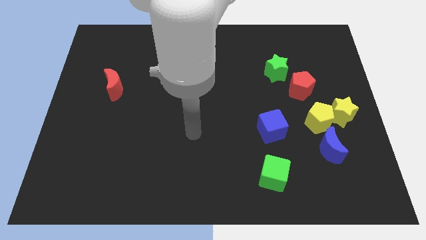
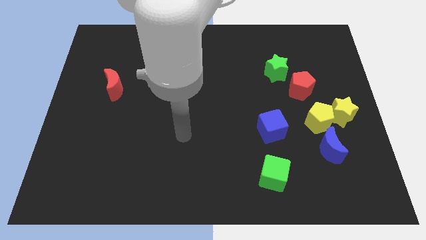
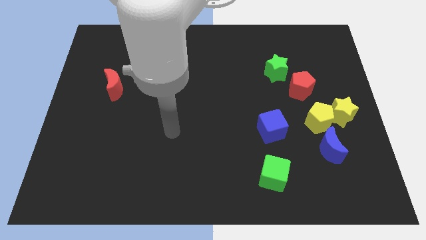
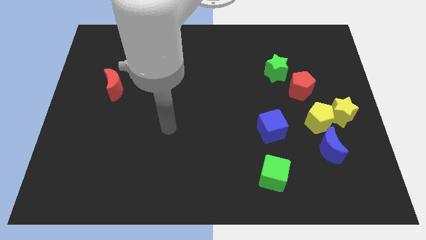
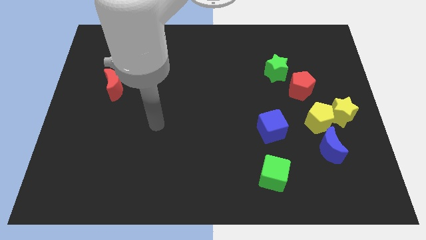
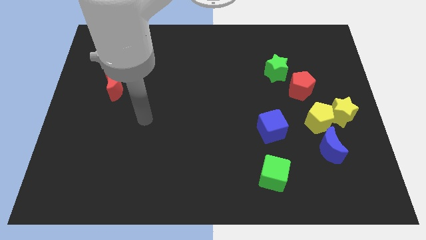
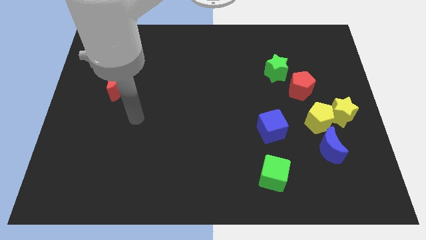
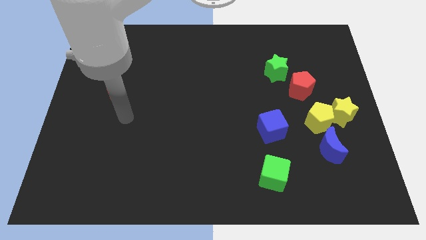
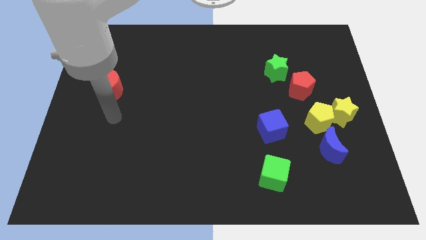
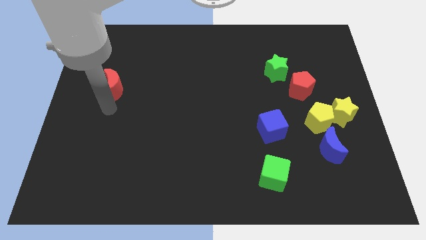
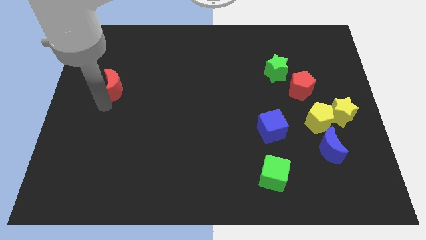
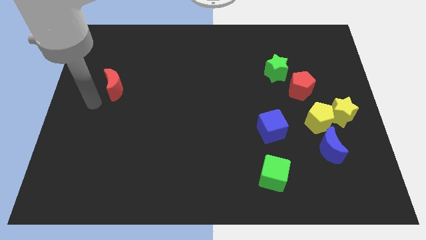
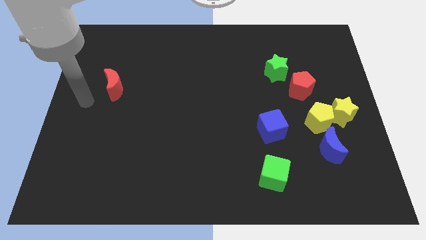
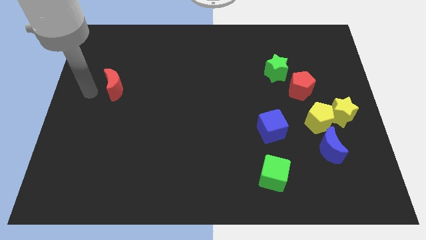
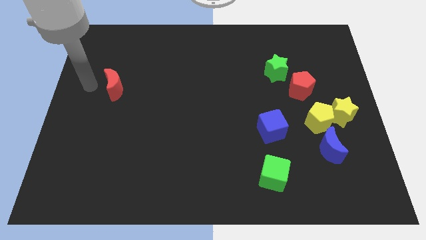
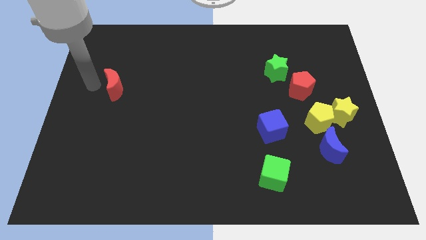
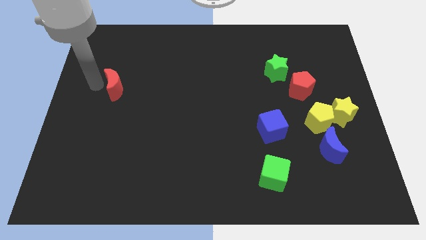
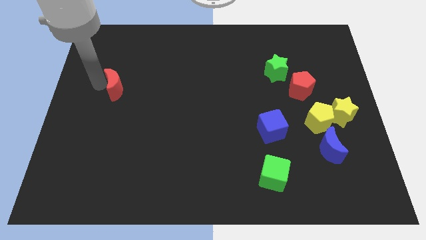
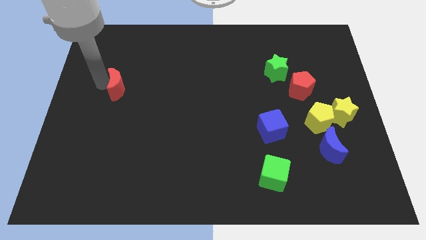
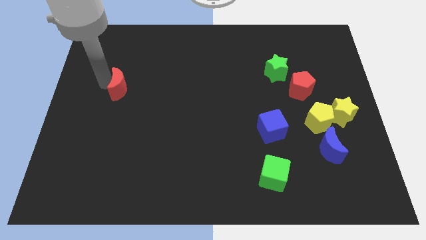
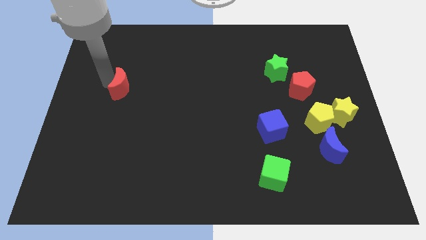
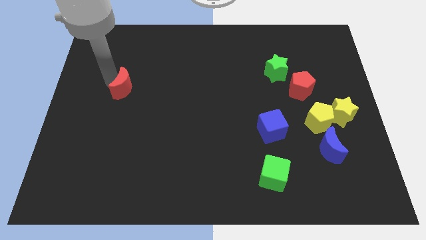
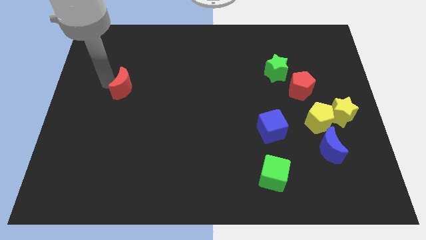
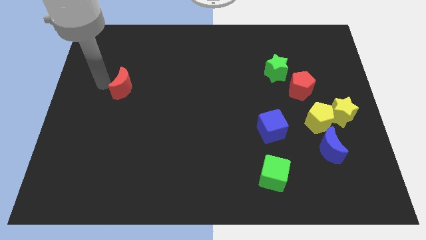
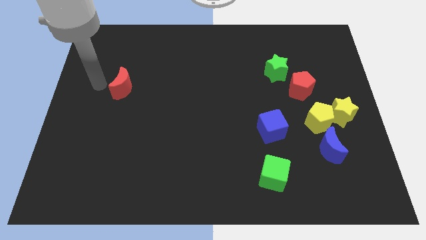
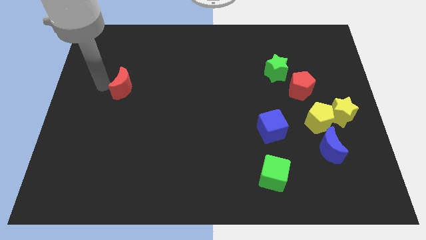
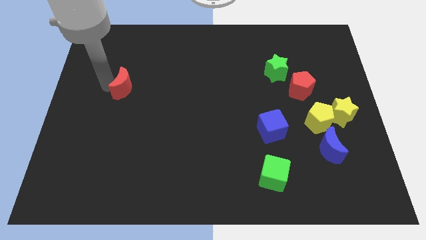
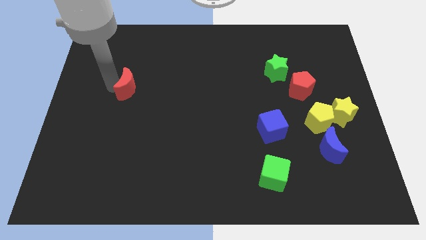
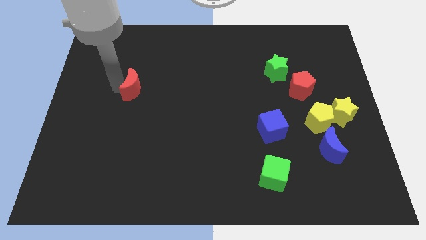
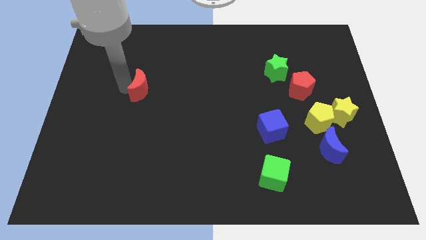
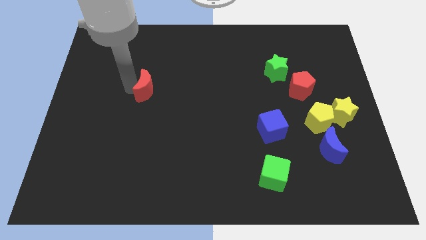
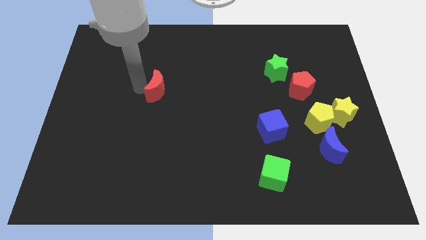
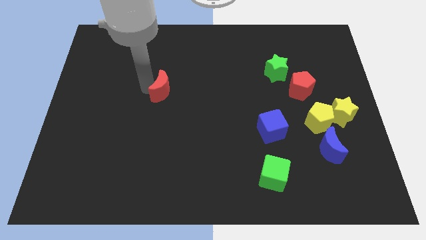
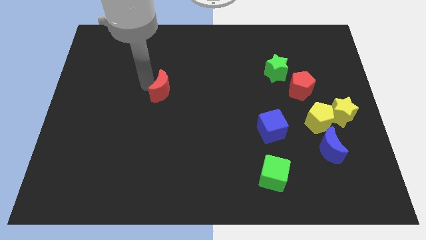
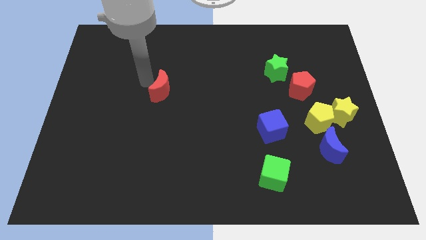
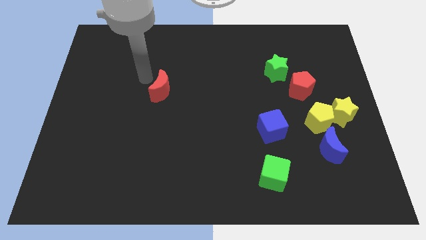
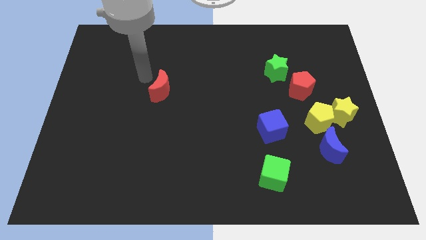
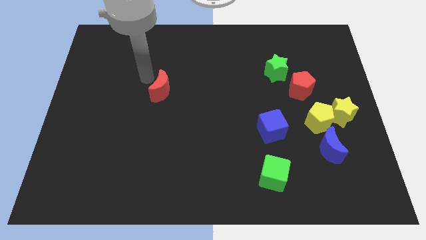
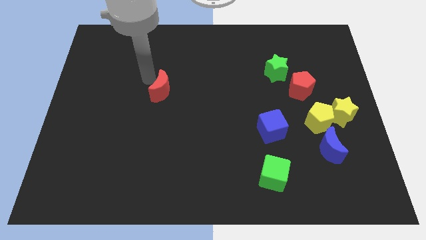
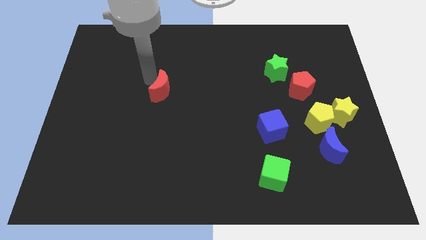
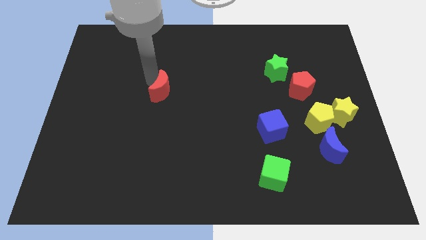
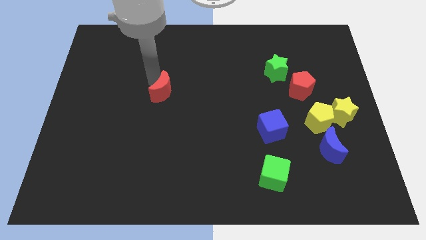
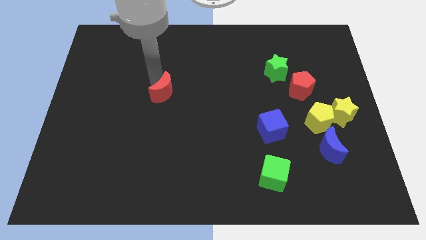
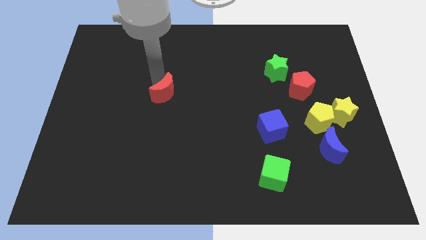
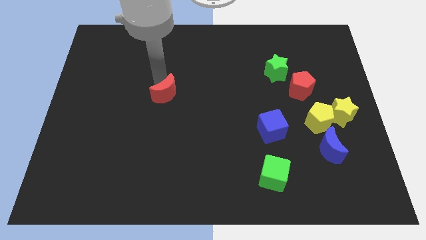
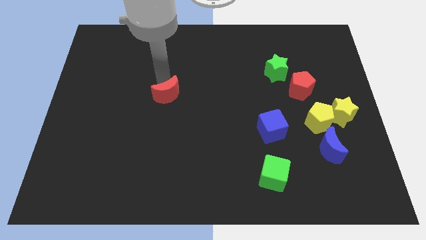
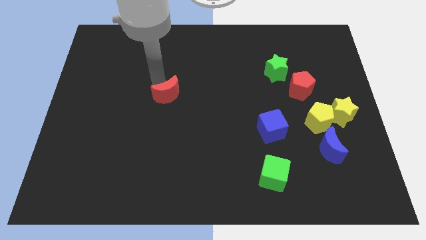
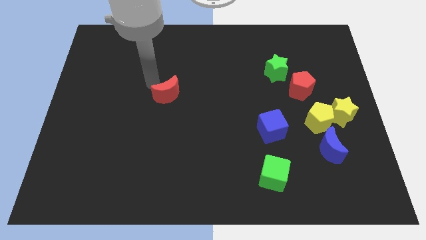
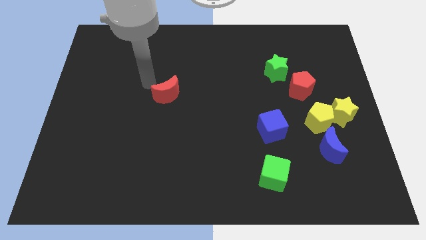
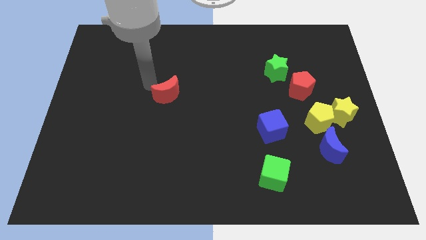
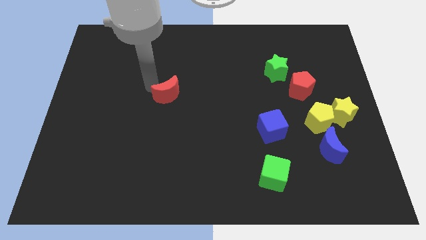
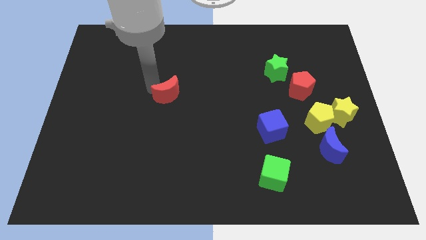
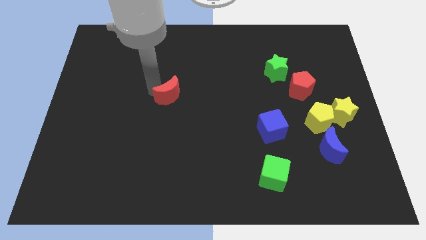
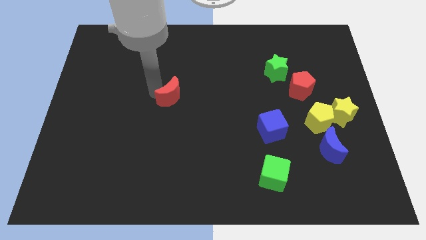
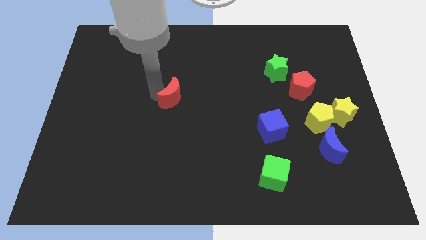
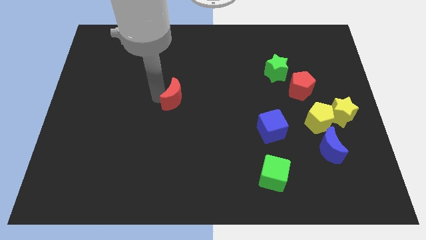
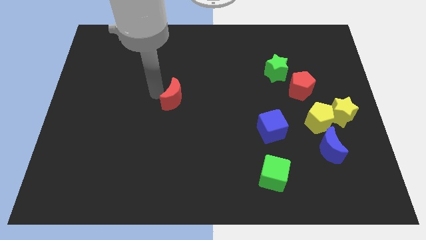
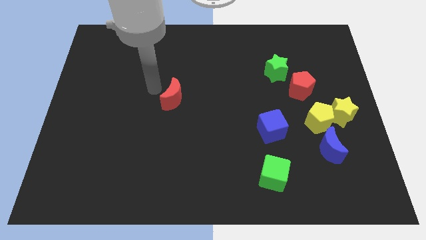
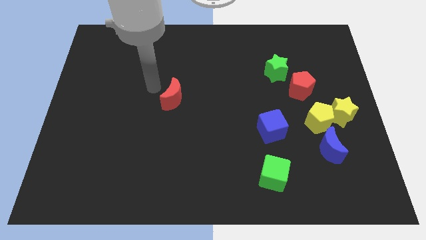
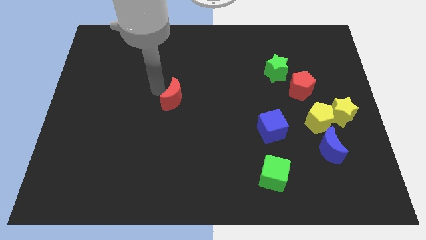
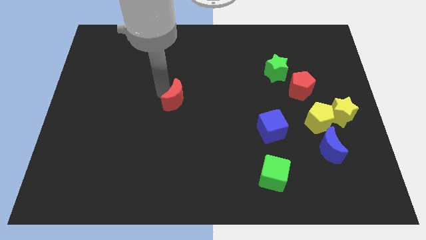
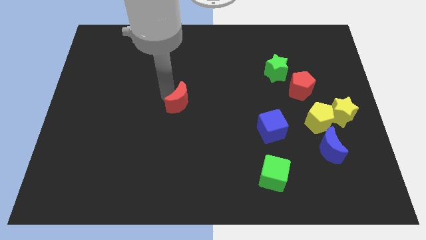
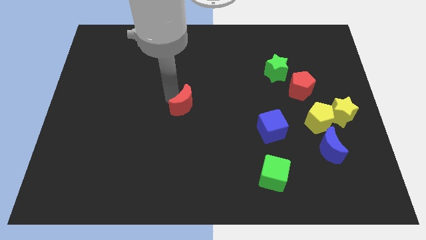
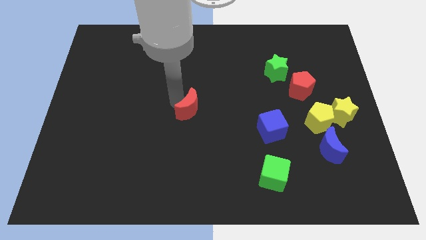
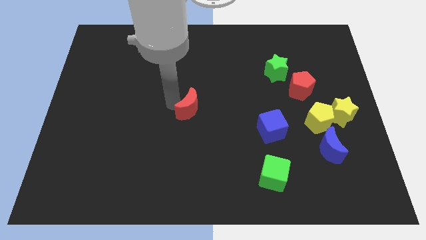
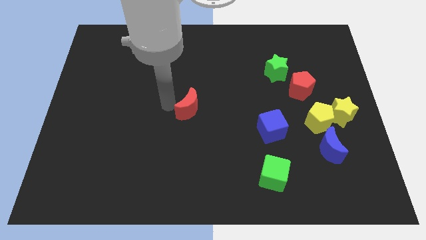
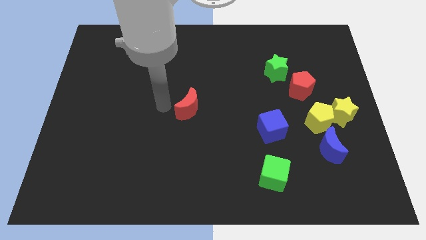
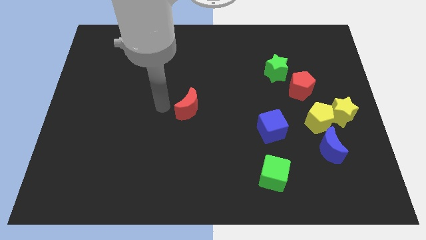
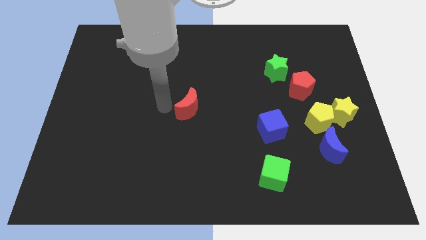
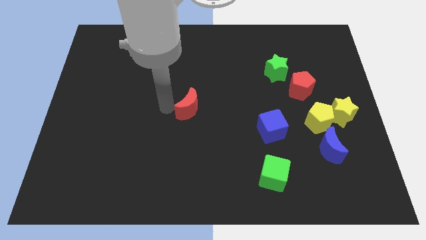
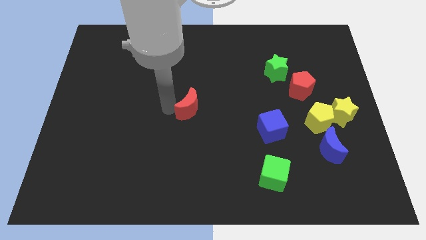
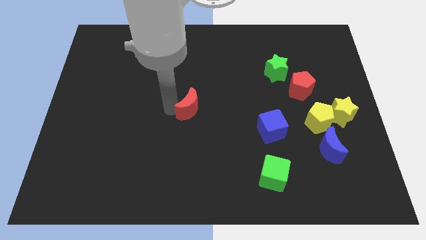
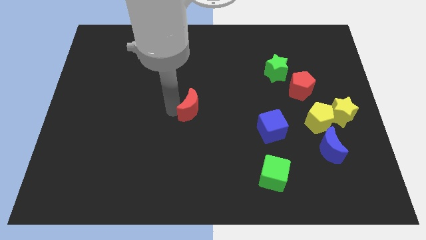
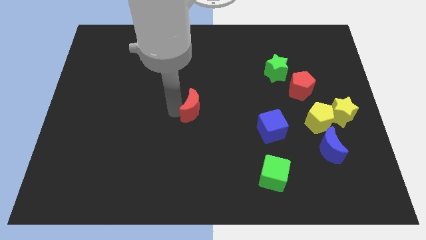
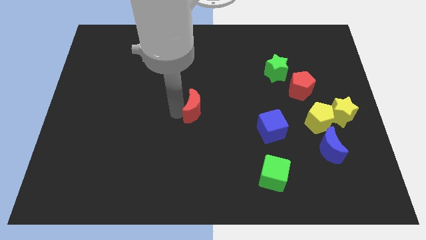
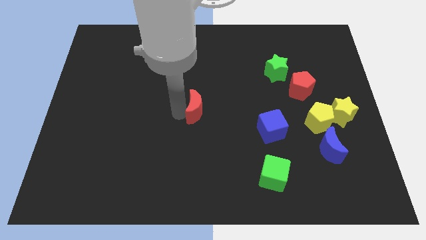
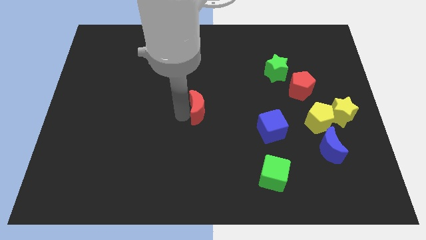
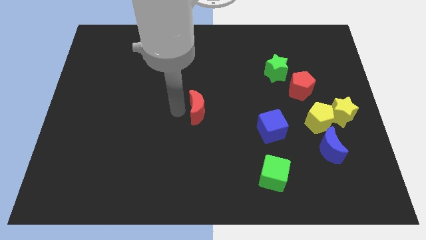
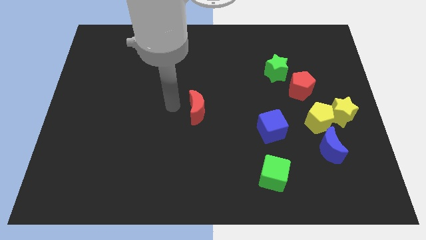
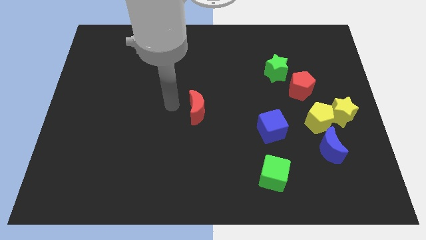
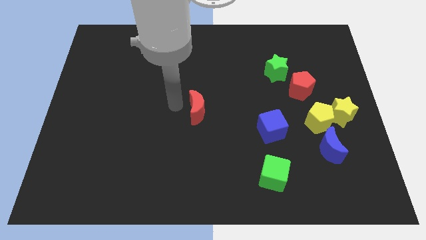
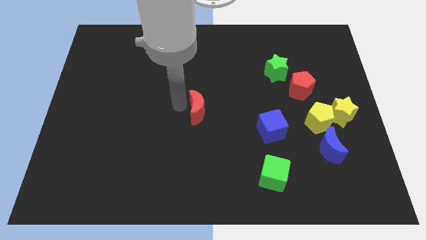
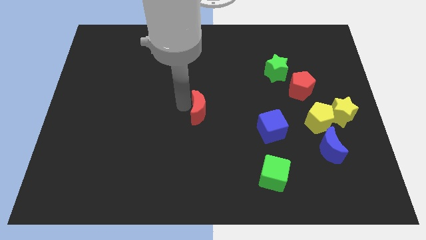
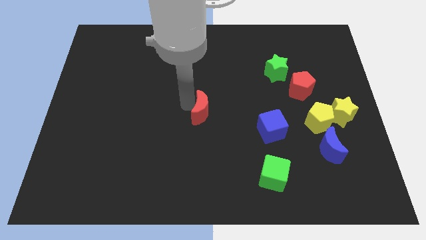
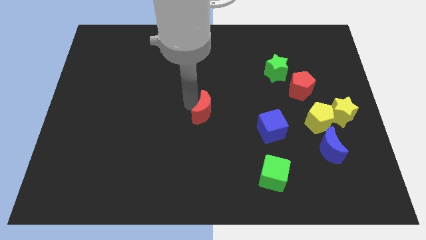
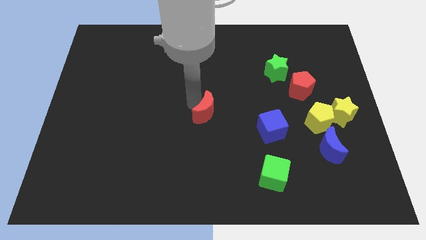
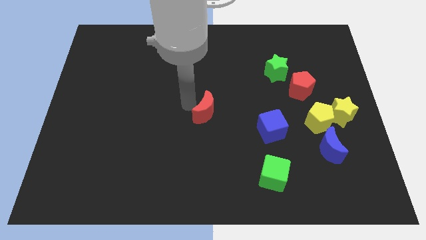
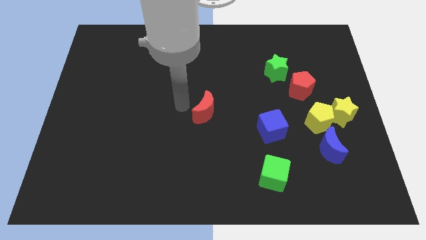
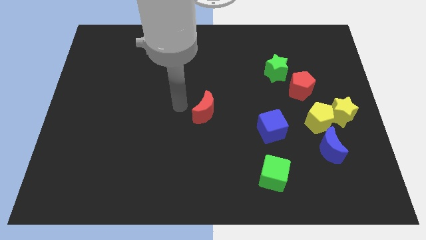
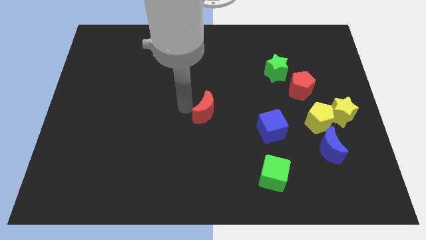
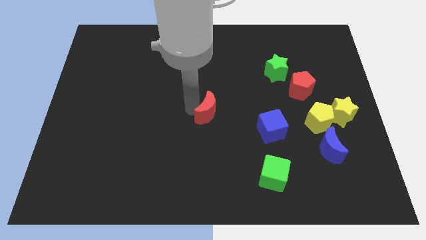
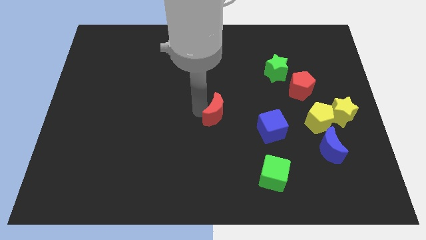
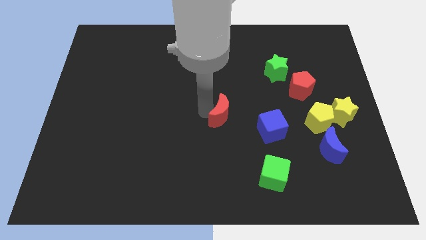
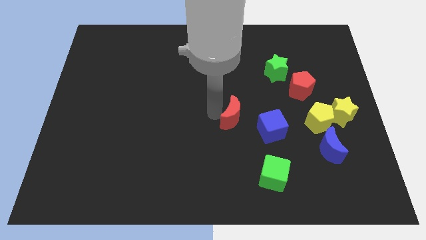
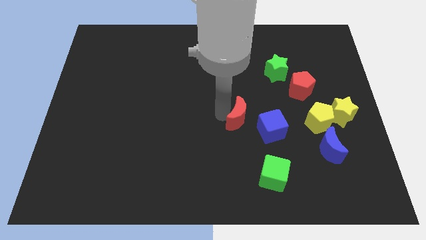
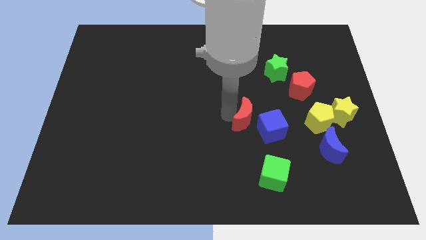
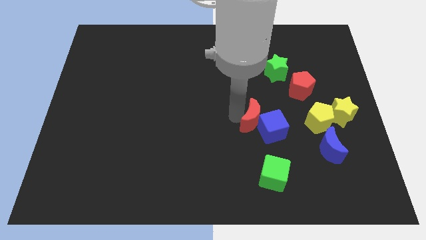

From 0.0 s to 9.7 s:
push the red moon next to the blue cube
